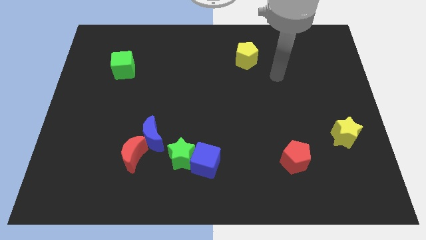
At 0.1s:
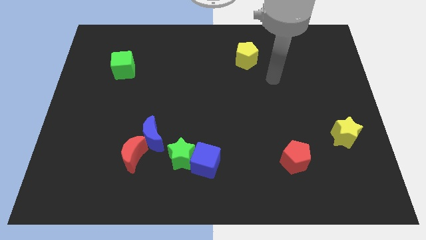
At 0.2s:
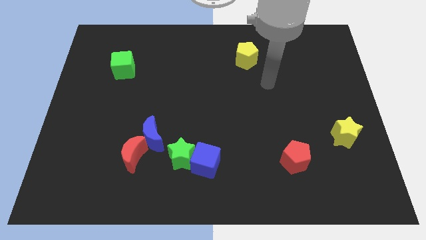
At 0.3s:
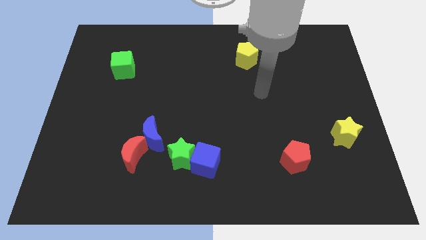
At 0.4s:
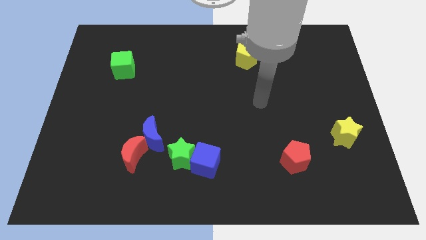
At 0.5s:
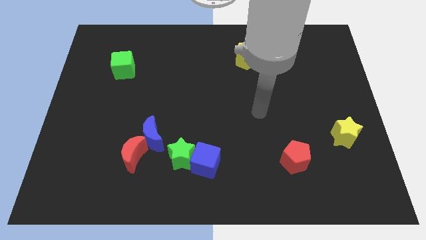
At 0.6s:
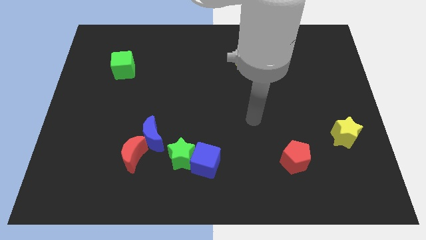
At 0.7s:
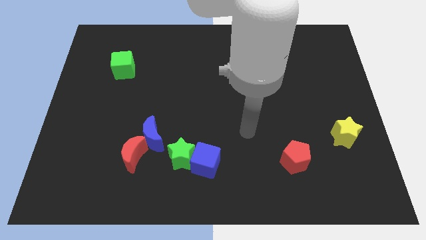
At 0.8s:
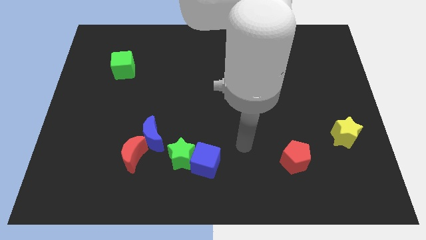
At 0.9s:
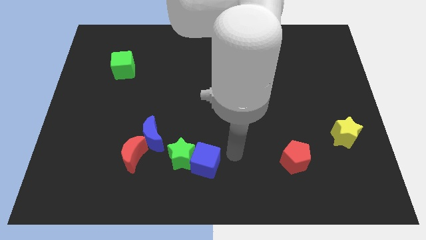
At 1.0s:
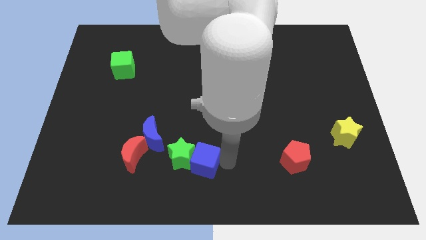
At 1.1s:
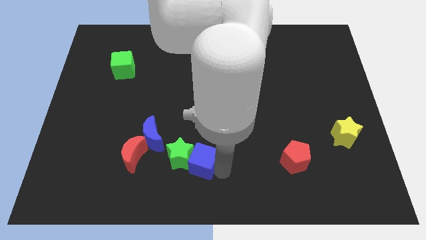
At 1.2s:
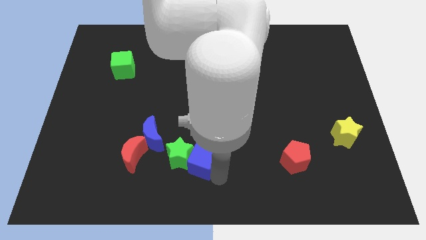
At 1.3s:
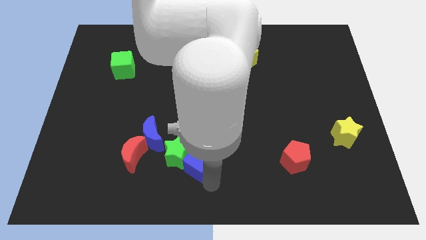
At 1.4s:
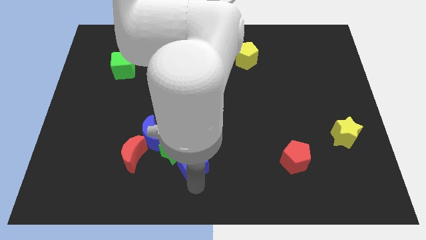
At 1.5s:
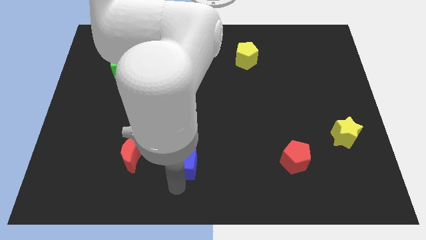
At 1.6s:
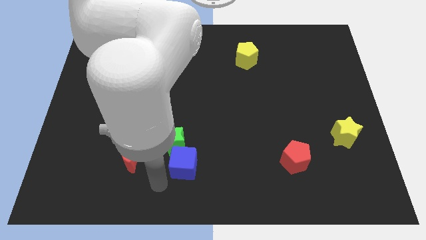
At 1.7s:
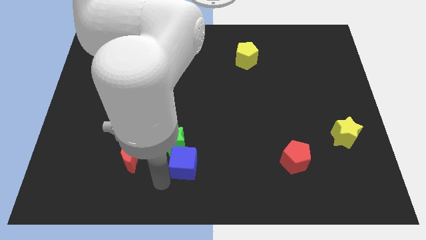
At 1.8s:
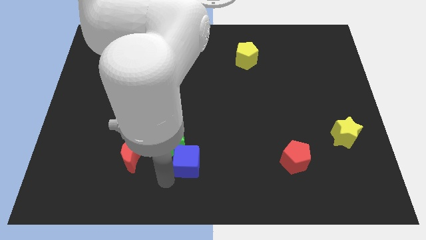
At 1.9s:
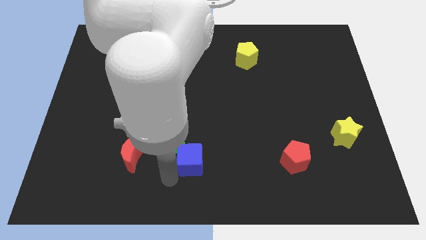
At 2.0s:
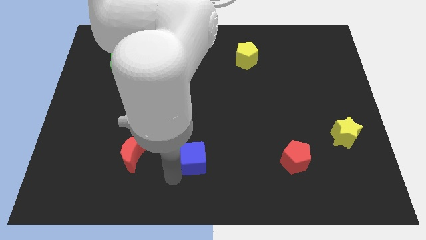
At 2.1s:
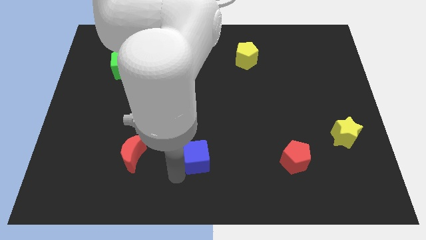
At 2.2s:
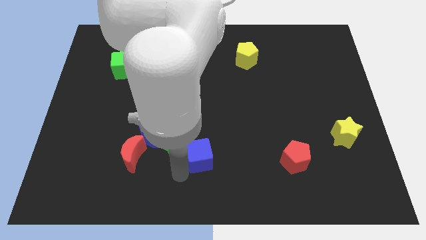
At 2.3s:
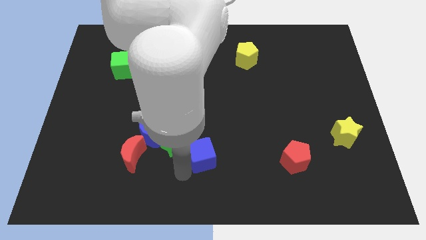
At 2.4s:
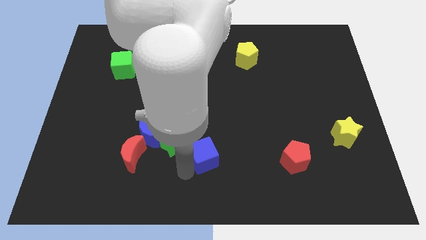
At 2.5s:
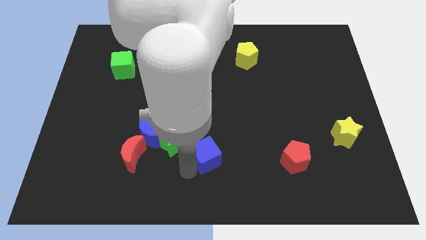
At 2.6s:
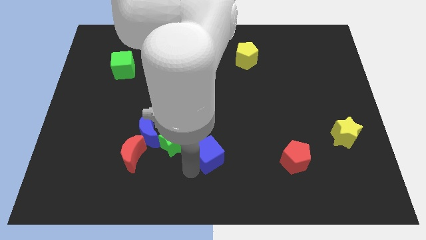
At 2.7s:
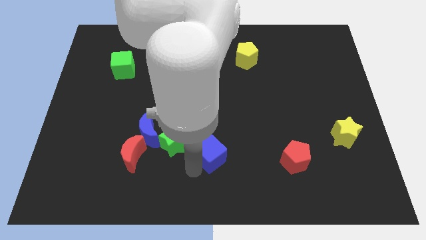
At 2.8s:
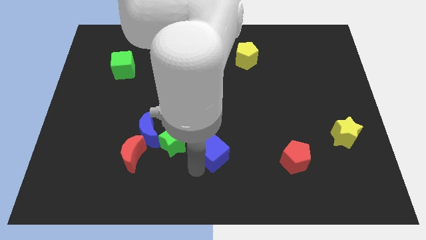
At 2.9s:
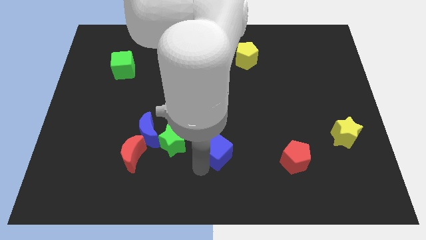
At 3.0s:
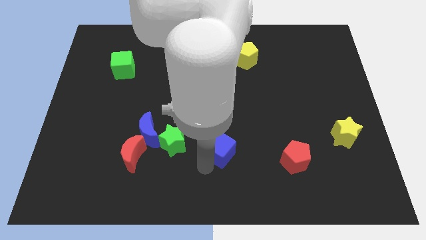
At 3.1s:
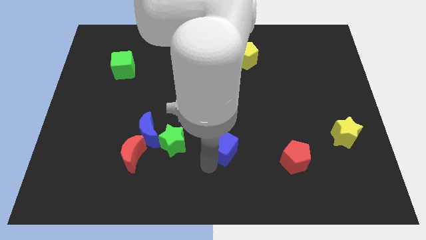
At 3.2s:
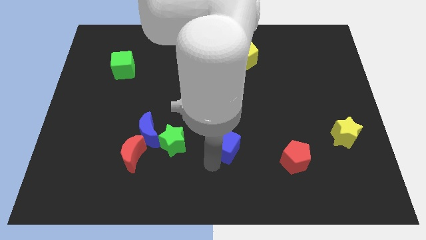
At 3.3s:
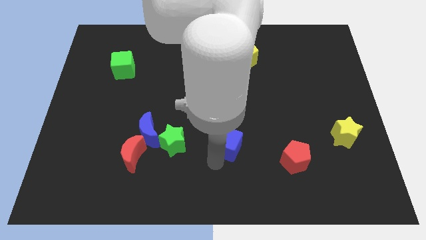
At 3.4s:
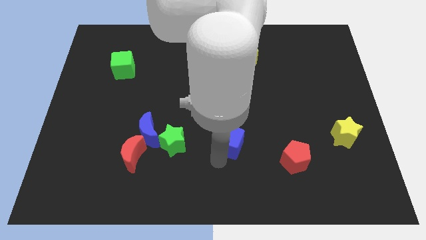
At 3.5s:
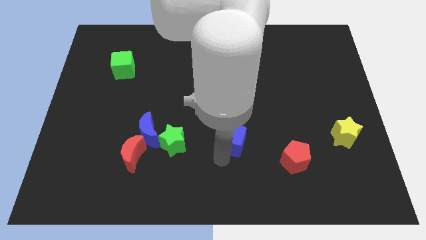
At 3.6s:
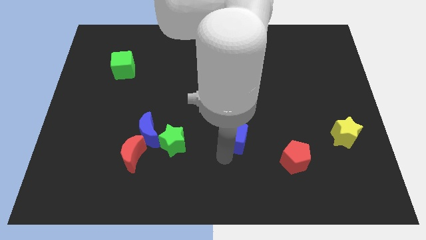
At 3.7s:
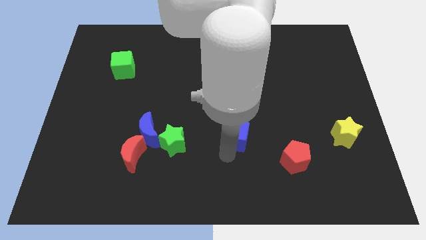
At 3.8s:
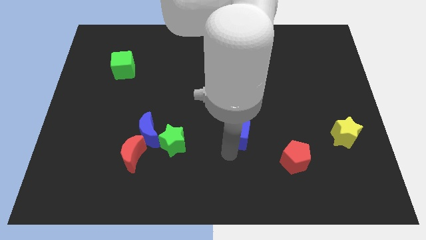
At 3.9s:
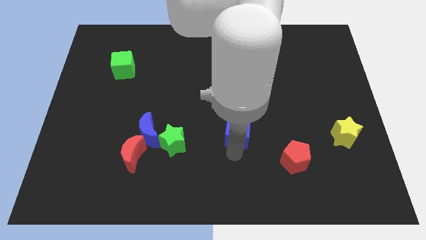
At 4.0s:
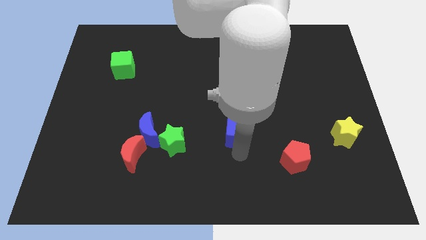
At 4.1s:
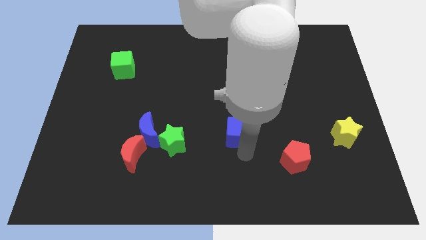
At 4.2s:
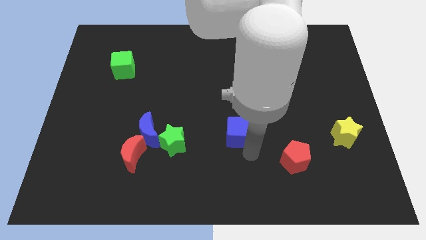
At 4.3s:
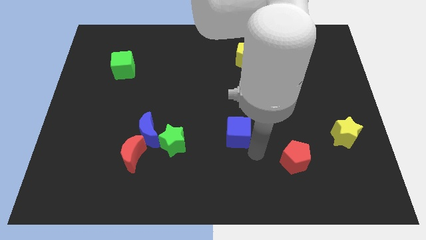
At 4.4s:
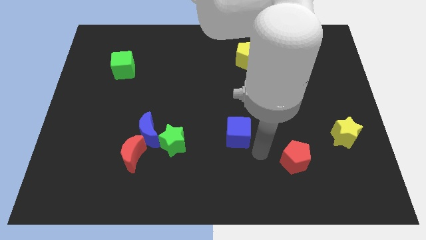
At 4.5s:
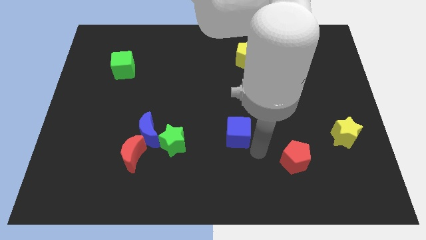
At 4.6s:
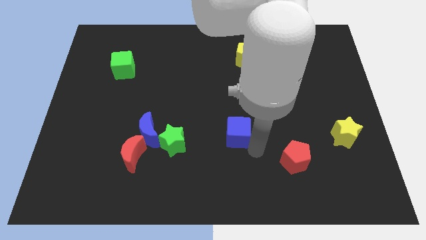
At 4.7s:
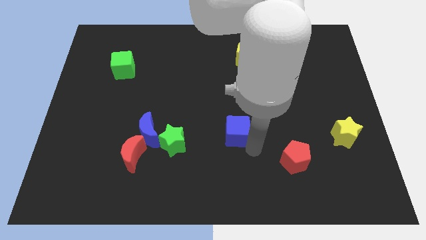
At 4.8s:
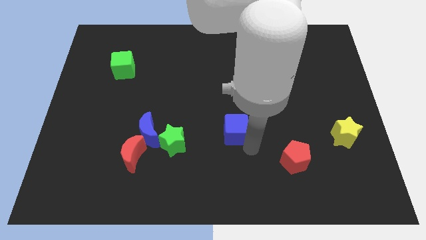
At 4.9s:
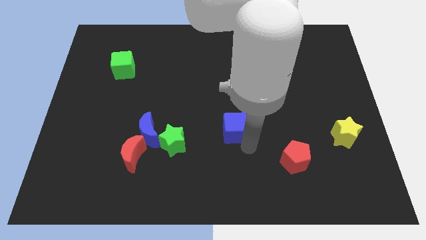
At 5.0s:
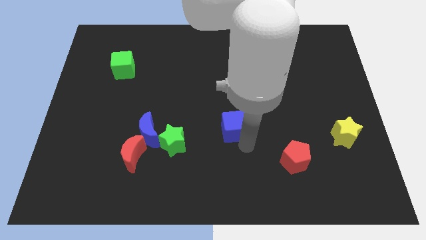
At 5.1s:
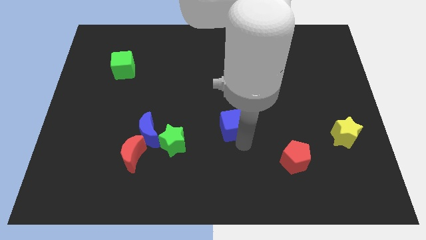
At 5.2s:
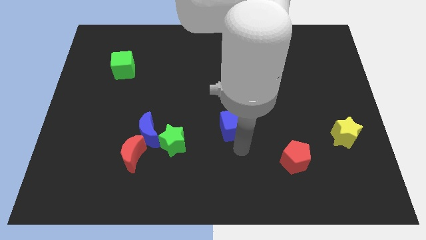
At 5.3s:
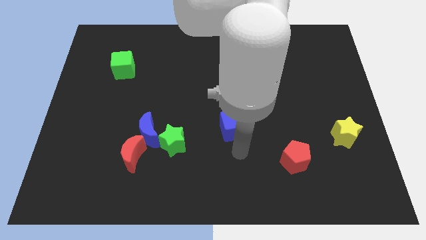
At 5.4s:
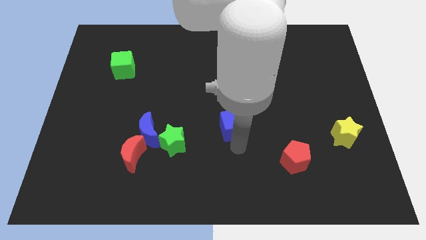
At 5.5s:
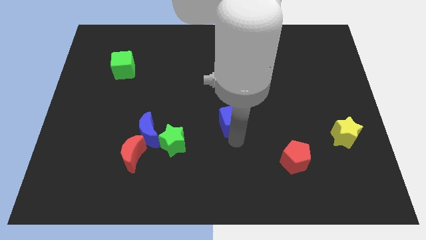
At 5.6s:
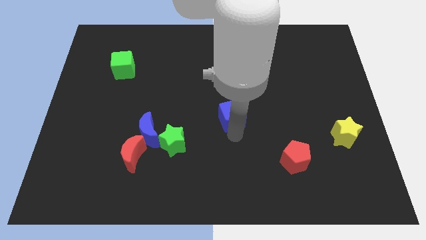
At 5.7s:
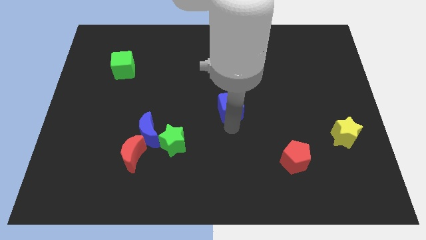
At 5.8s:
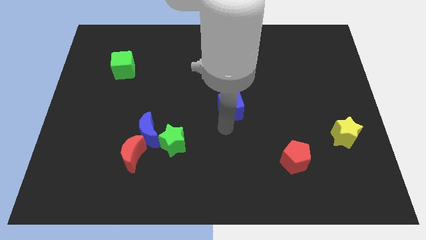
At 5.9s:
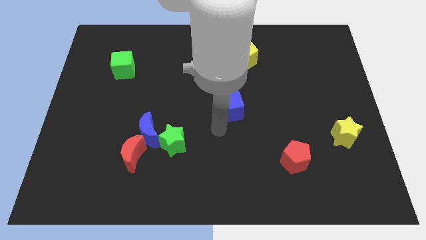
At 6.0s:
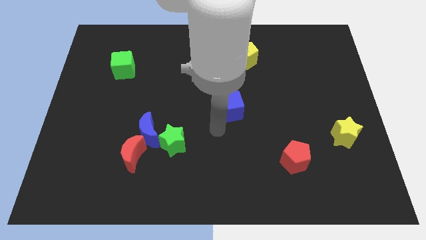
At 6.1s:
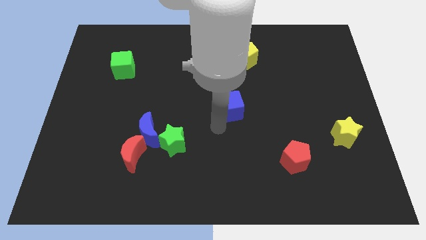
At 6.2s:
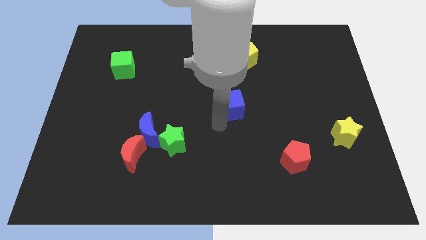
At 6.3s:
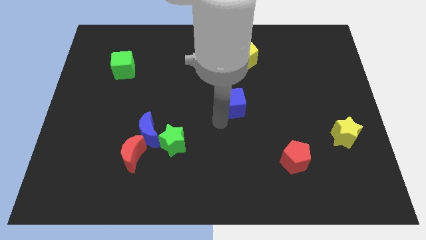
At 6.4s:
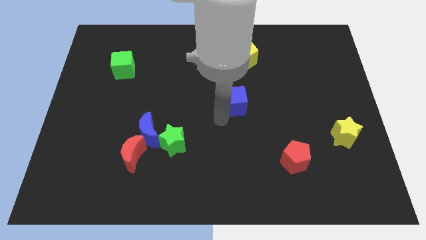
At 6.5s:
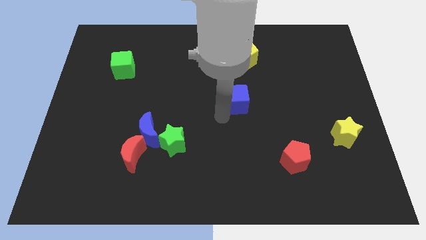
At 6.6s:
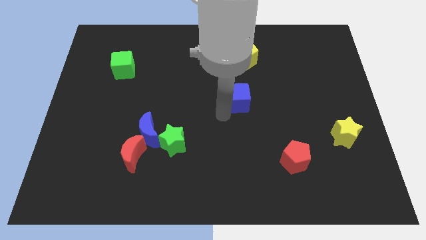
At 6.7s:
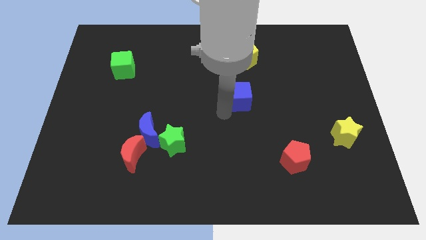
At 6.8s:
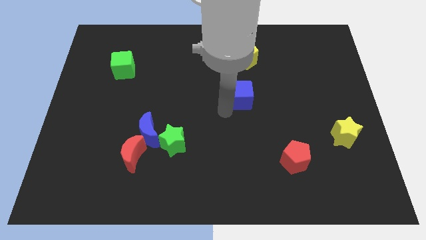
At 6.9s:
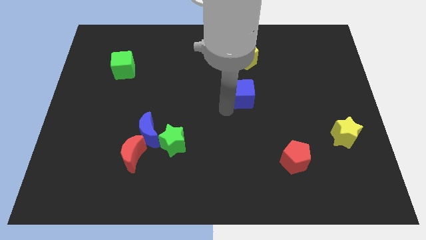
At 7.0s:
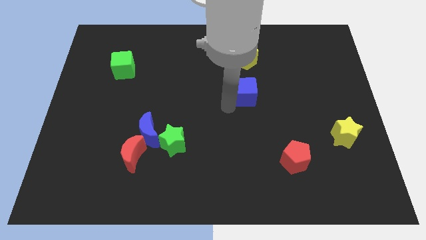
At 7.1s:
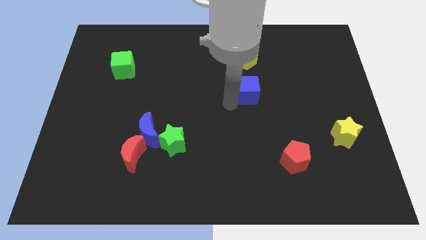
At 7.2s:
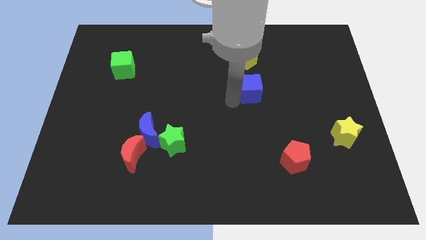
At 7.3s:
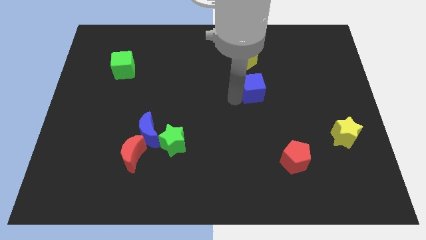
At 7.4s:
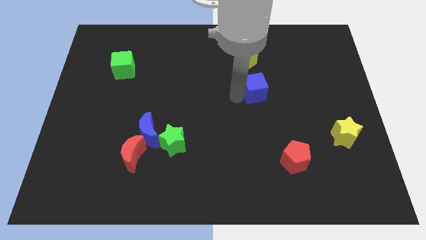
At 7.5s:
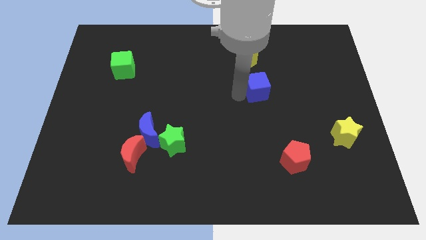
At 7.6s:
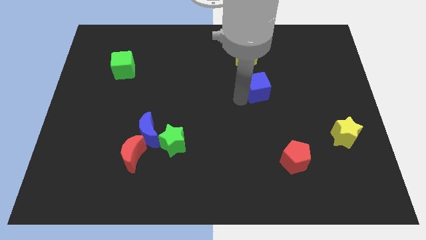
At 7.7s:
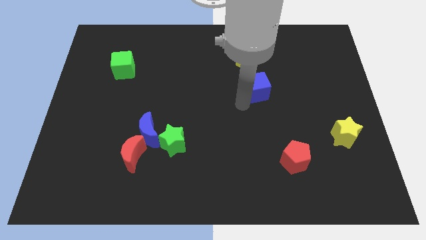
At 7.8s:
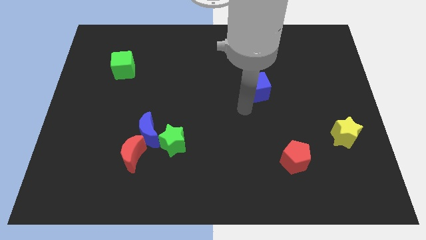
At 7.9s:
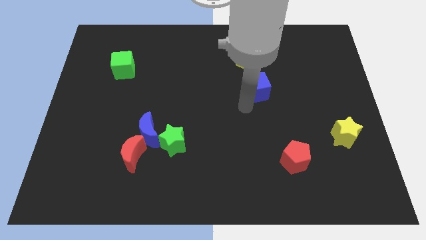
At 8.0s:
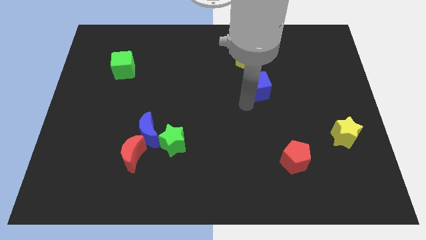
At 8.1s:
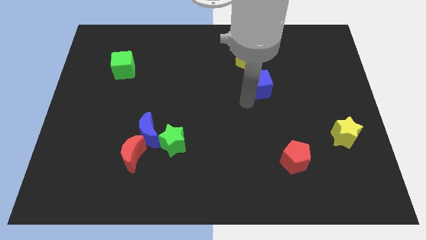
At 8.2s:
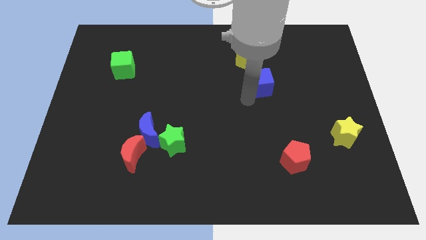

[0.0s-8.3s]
slide the blue cube to the bottom right side of the yellow pentagon
